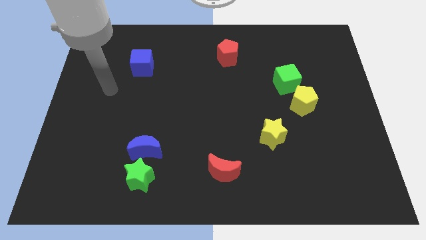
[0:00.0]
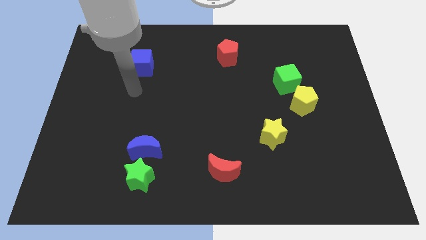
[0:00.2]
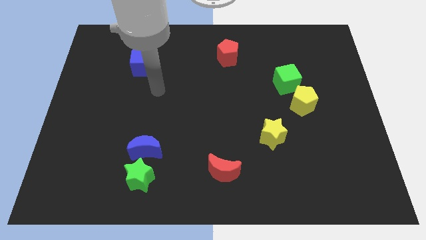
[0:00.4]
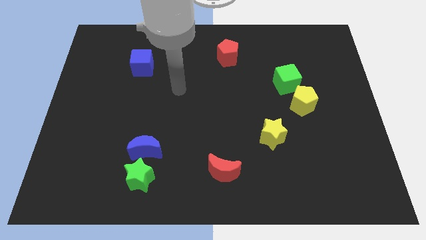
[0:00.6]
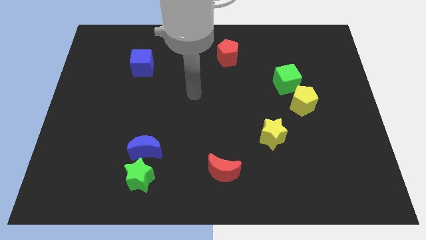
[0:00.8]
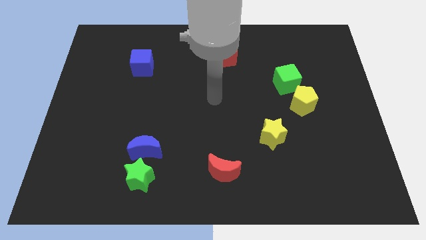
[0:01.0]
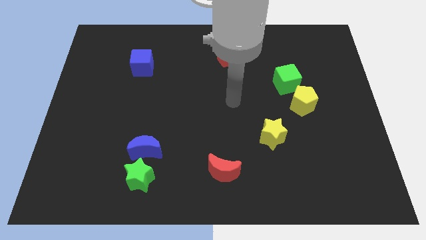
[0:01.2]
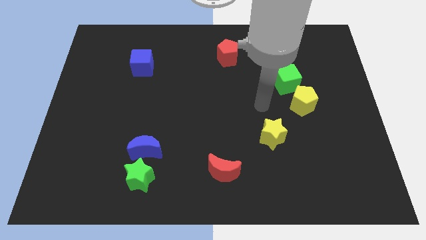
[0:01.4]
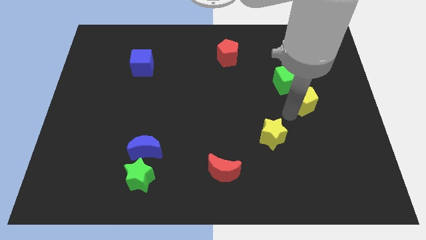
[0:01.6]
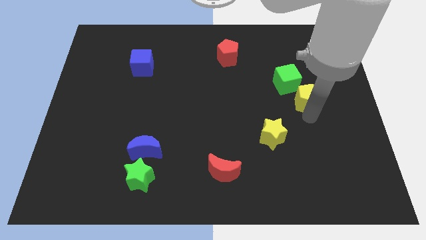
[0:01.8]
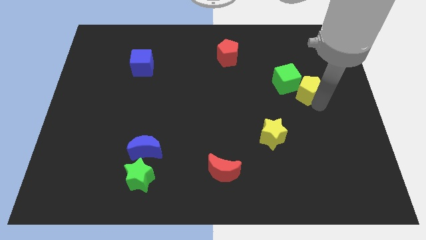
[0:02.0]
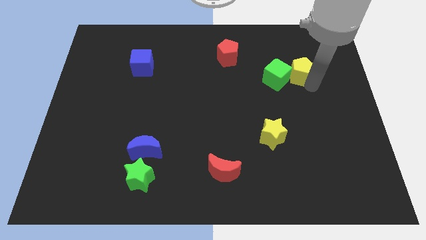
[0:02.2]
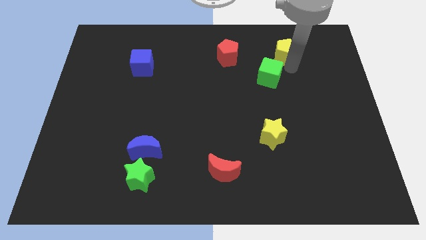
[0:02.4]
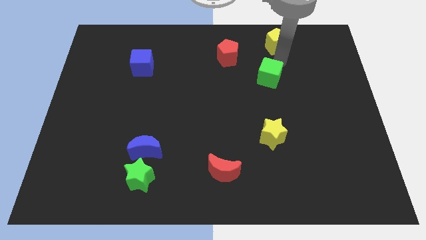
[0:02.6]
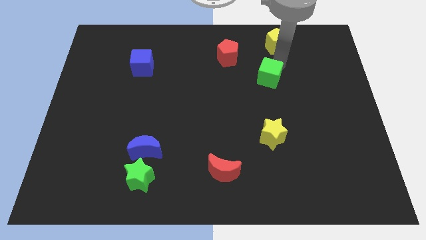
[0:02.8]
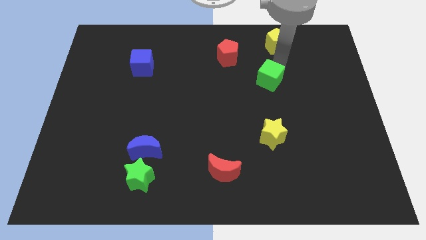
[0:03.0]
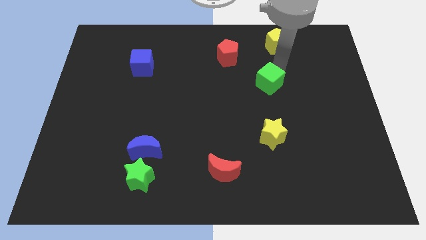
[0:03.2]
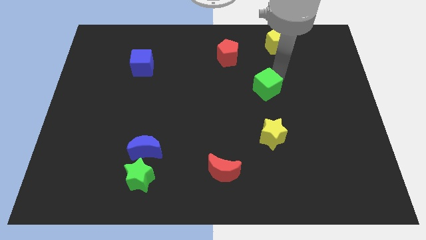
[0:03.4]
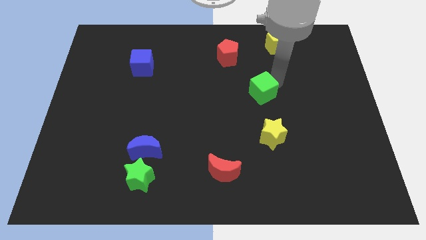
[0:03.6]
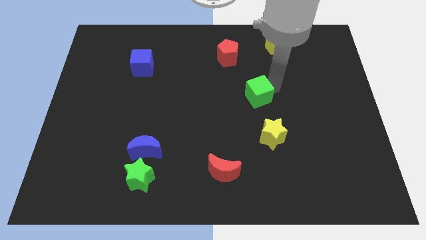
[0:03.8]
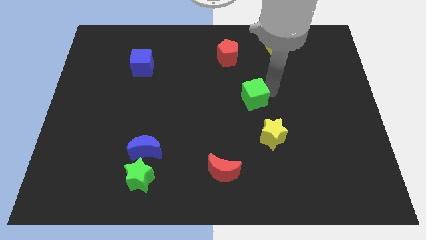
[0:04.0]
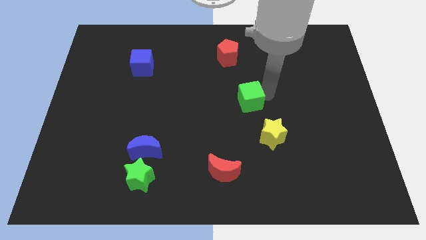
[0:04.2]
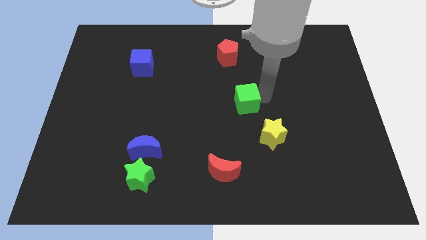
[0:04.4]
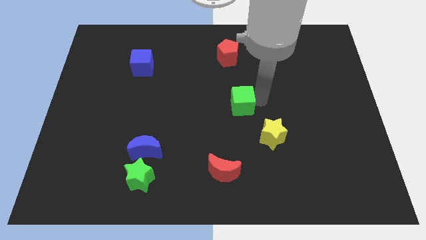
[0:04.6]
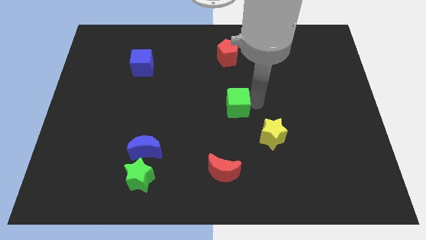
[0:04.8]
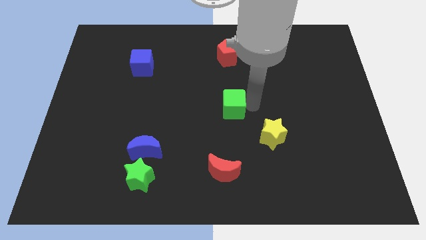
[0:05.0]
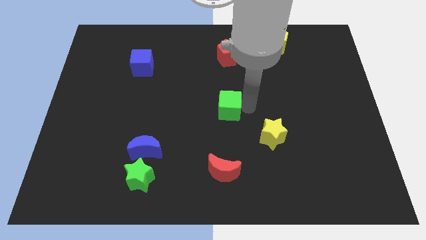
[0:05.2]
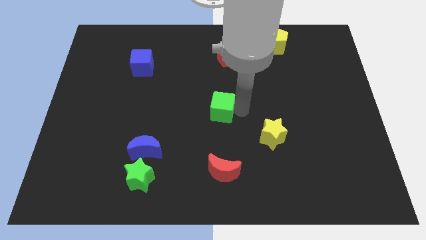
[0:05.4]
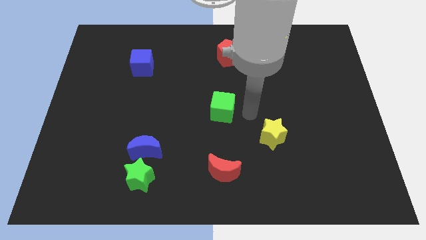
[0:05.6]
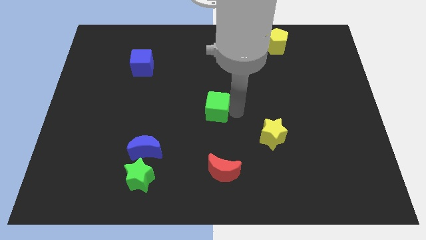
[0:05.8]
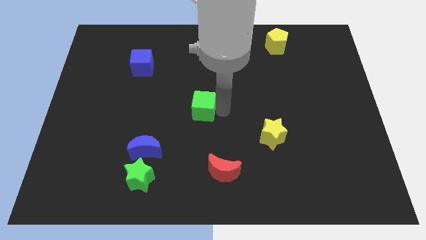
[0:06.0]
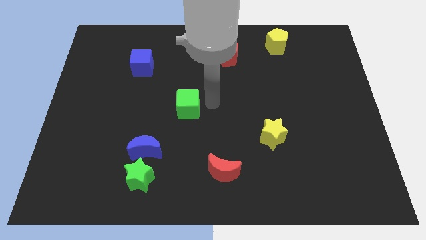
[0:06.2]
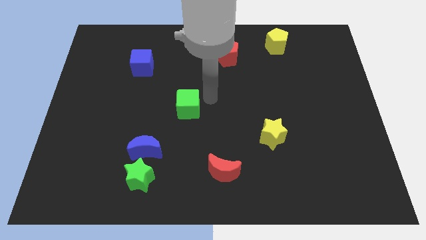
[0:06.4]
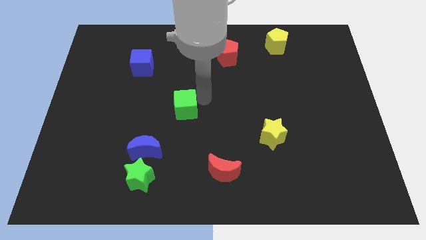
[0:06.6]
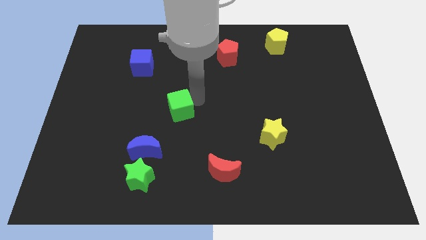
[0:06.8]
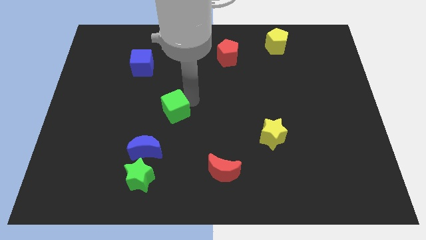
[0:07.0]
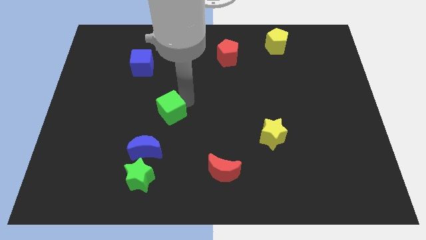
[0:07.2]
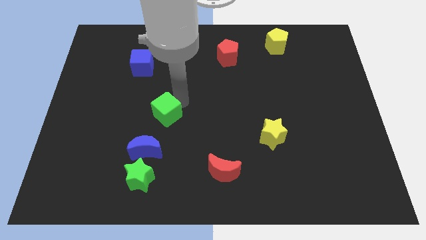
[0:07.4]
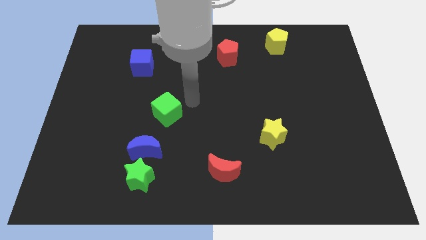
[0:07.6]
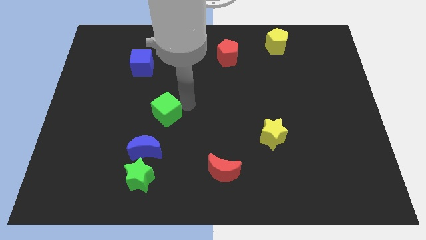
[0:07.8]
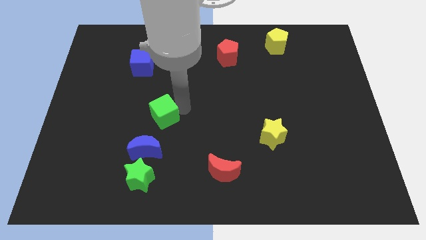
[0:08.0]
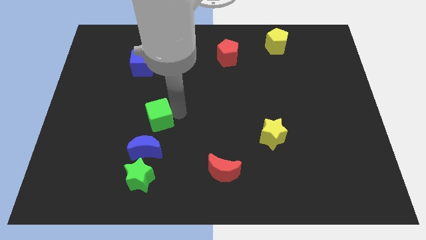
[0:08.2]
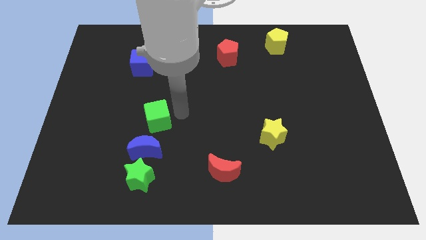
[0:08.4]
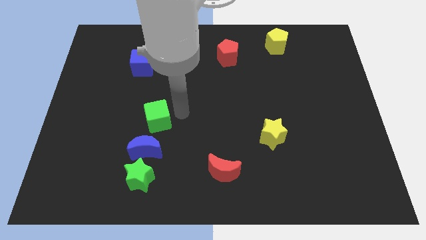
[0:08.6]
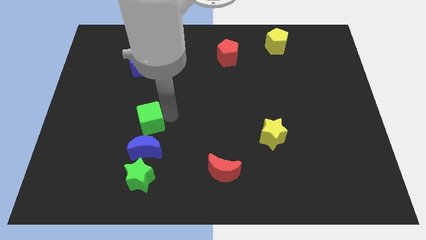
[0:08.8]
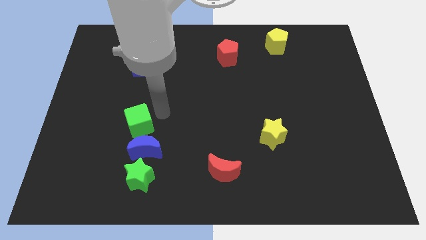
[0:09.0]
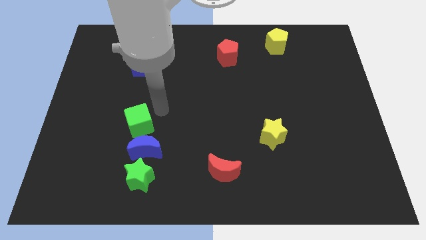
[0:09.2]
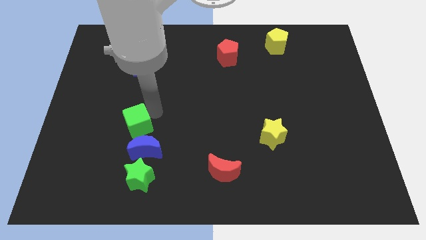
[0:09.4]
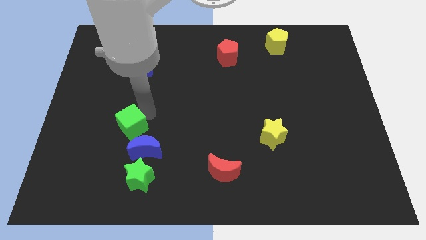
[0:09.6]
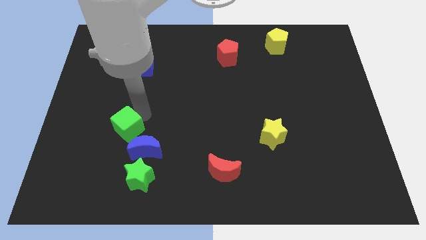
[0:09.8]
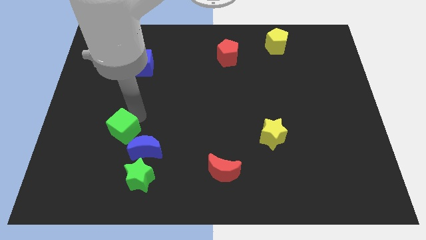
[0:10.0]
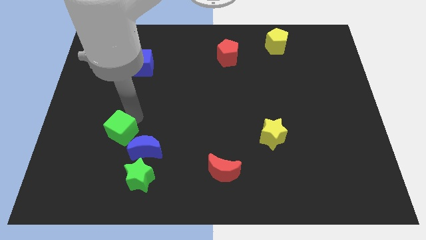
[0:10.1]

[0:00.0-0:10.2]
move the green cube to the left side of the blue moon

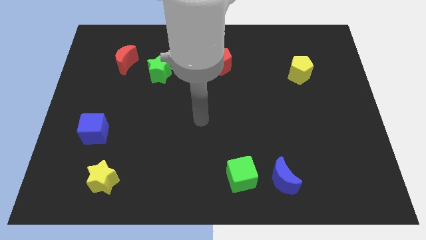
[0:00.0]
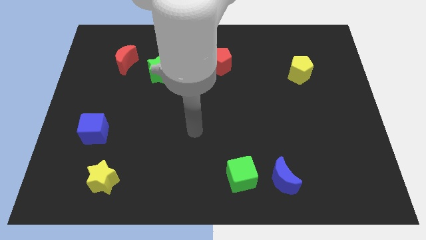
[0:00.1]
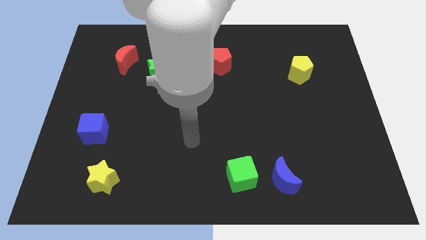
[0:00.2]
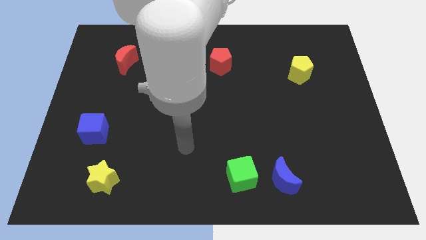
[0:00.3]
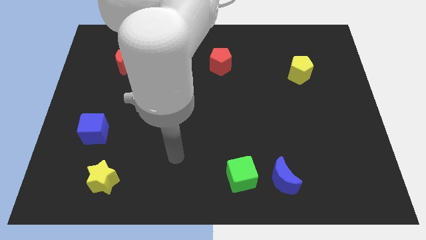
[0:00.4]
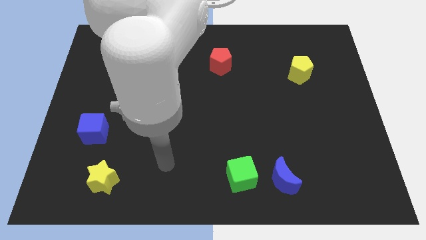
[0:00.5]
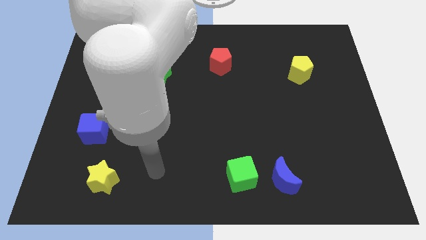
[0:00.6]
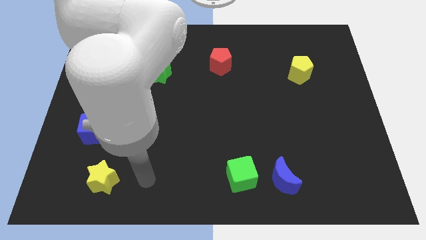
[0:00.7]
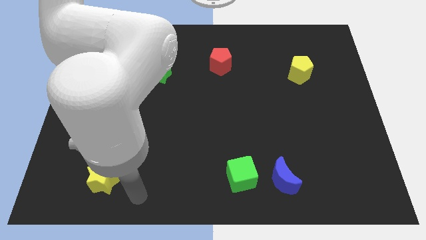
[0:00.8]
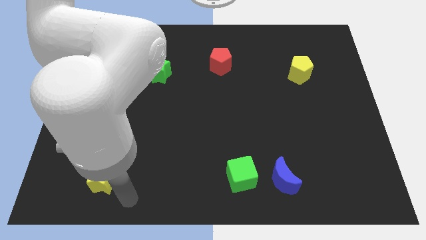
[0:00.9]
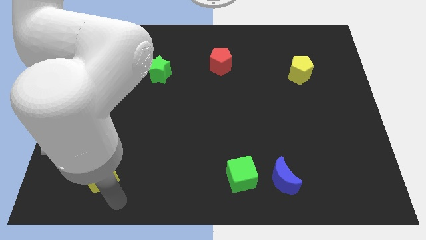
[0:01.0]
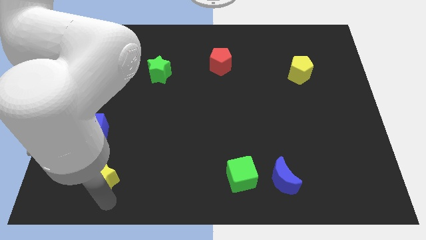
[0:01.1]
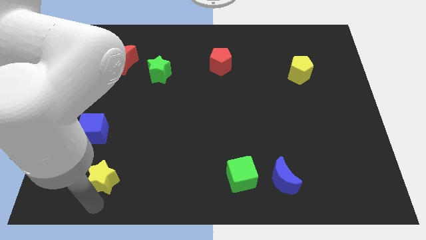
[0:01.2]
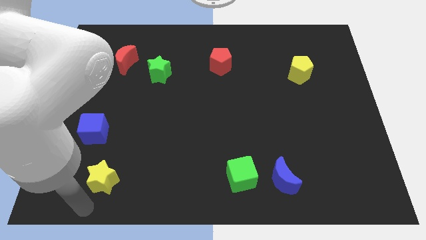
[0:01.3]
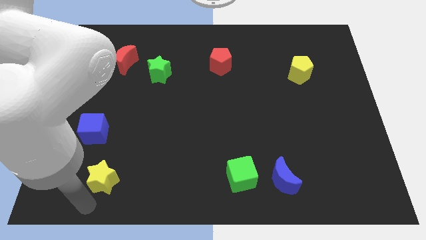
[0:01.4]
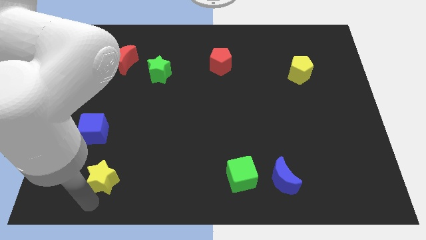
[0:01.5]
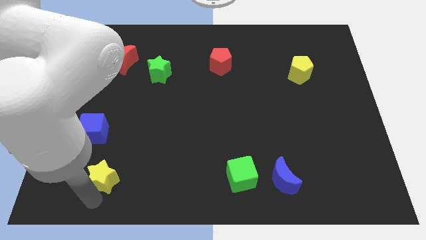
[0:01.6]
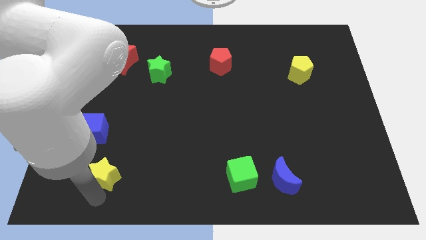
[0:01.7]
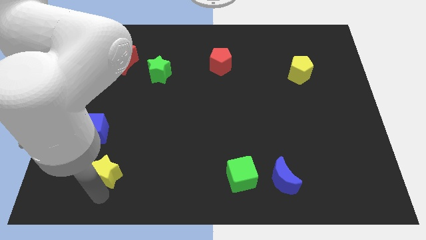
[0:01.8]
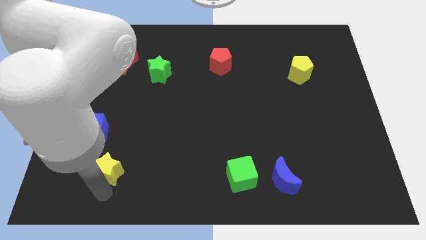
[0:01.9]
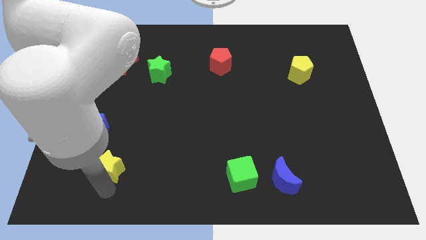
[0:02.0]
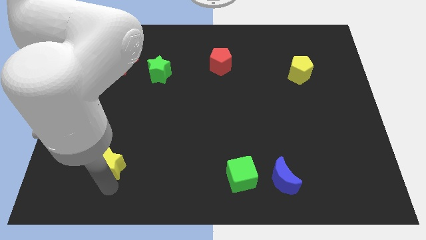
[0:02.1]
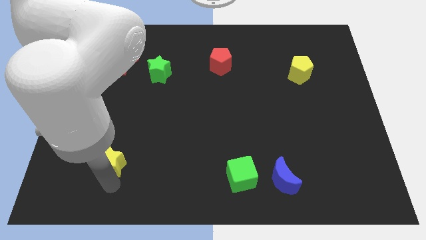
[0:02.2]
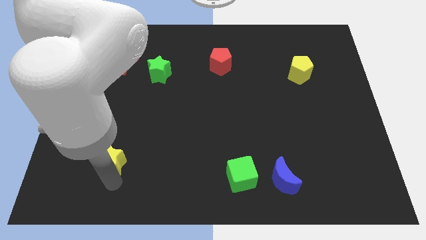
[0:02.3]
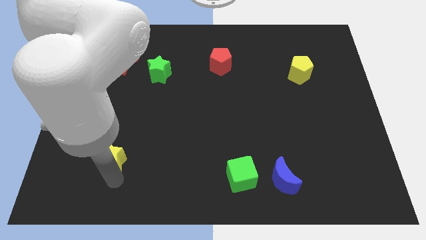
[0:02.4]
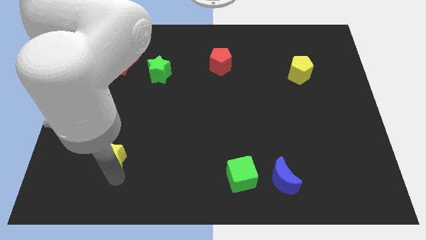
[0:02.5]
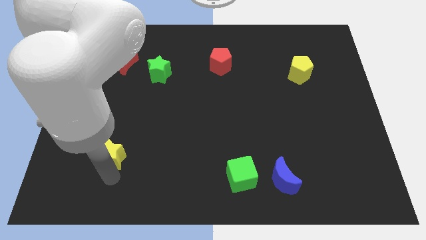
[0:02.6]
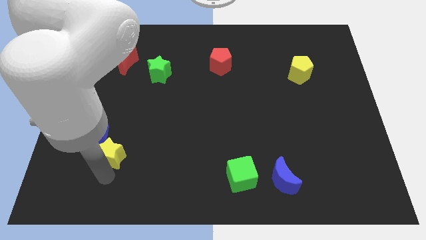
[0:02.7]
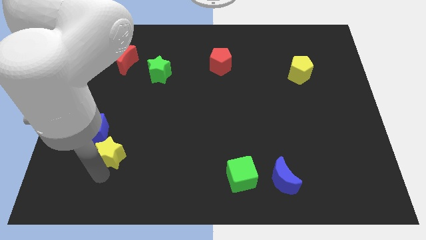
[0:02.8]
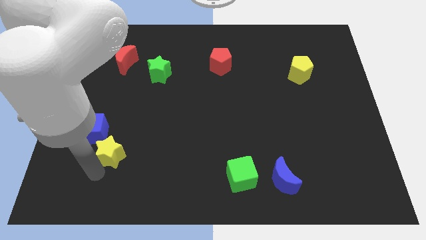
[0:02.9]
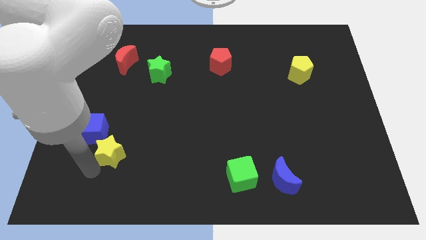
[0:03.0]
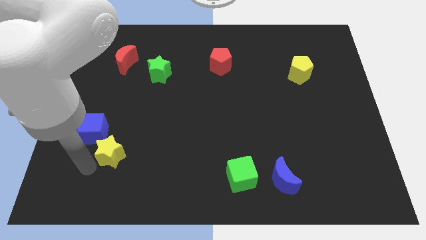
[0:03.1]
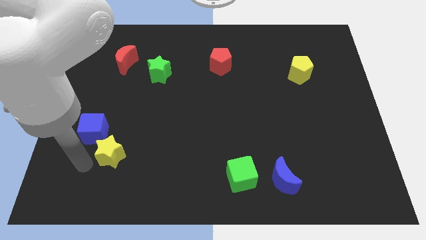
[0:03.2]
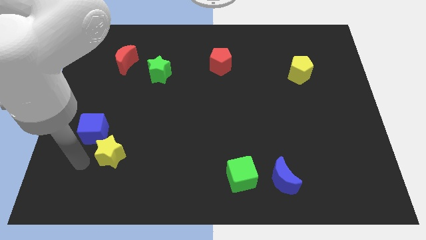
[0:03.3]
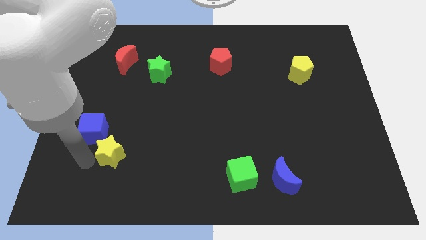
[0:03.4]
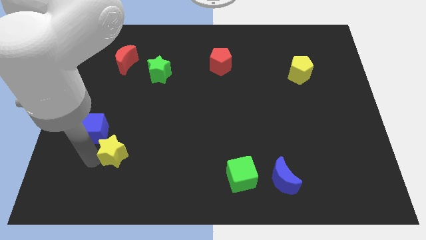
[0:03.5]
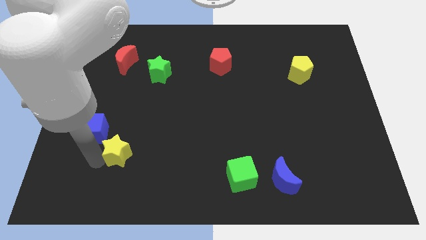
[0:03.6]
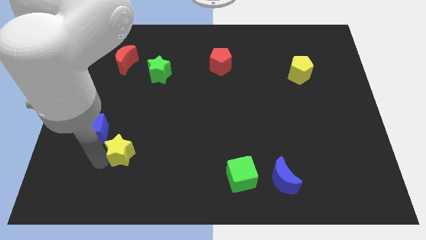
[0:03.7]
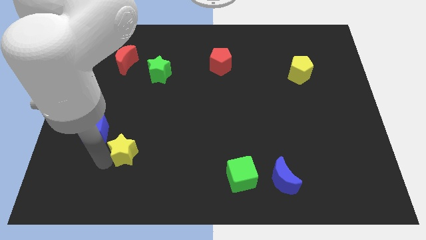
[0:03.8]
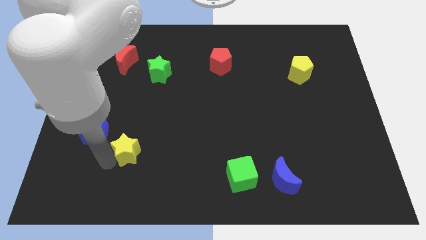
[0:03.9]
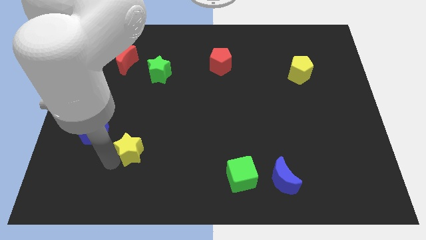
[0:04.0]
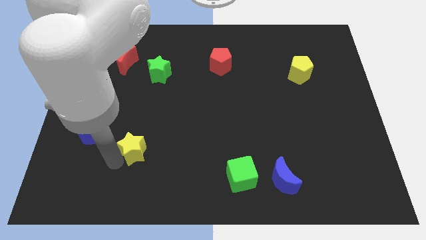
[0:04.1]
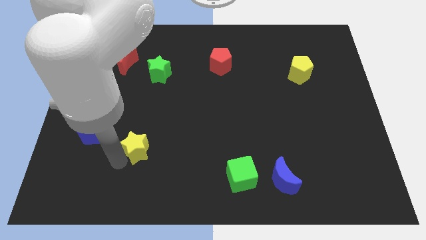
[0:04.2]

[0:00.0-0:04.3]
push the yellow star right of the blue cube
